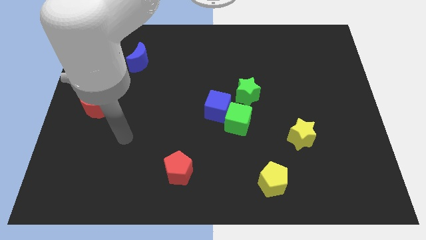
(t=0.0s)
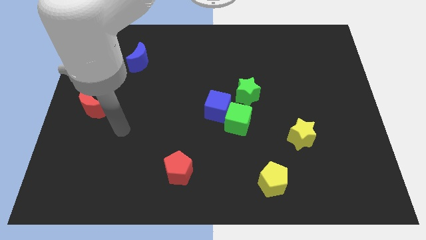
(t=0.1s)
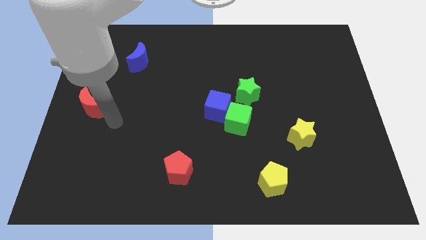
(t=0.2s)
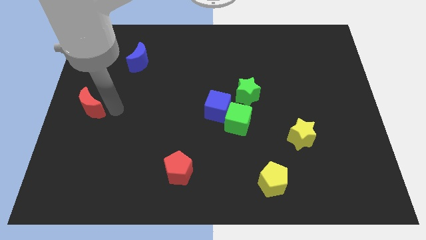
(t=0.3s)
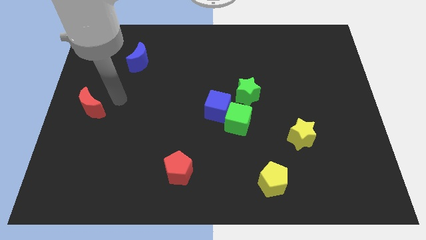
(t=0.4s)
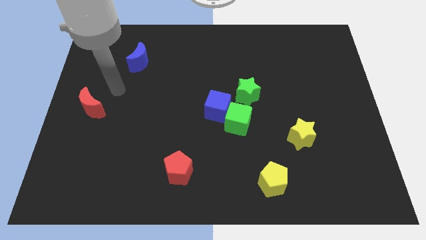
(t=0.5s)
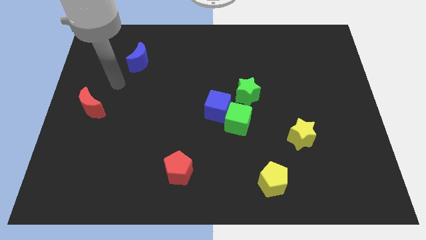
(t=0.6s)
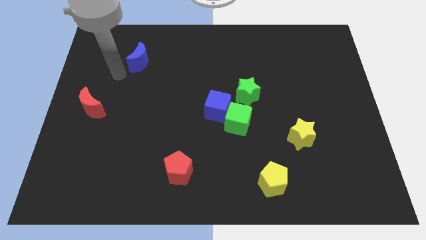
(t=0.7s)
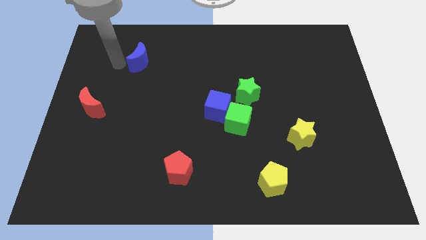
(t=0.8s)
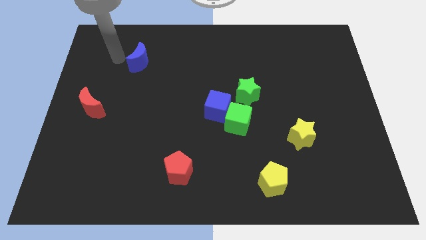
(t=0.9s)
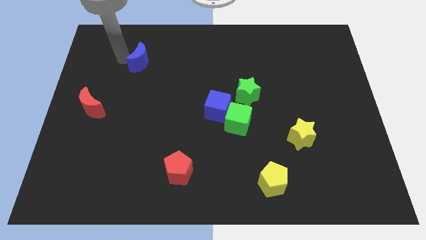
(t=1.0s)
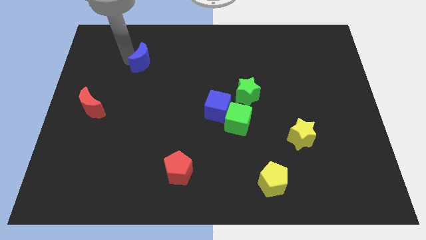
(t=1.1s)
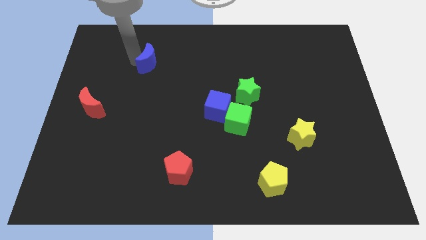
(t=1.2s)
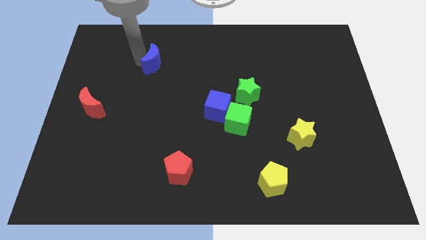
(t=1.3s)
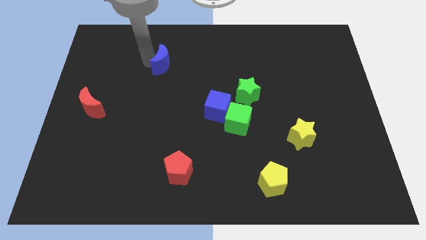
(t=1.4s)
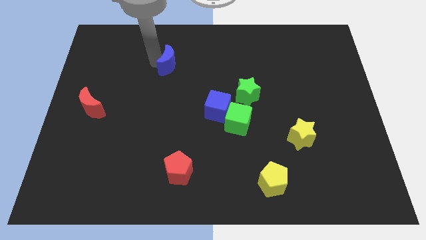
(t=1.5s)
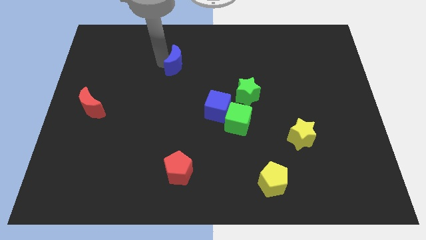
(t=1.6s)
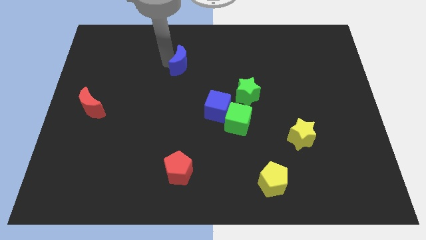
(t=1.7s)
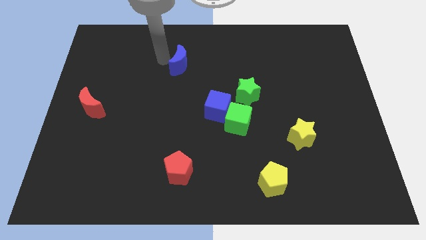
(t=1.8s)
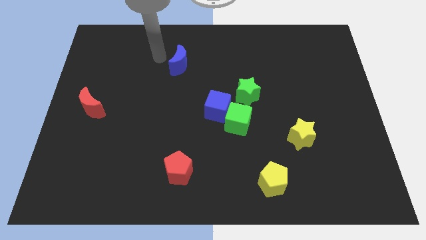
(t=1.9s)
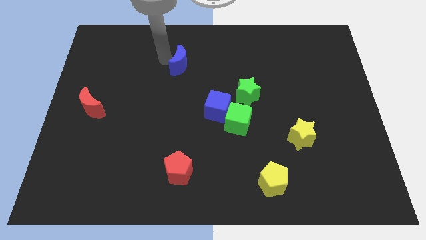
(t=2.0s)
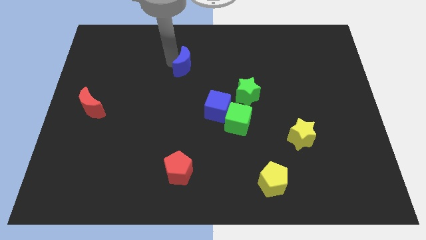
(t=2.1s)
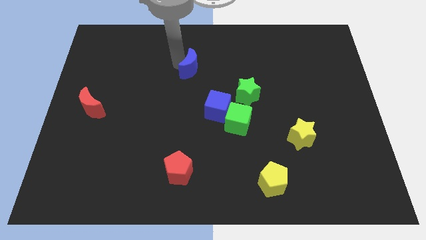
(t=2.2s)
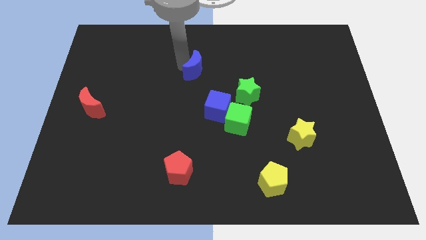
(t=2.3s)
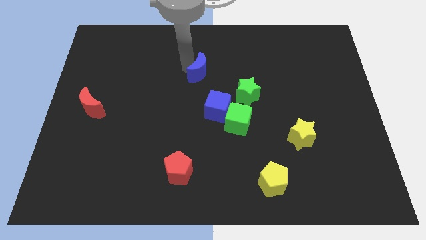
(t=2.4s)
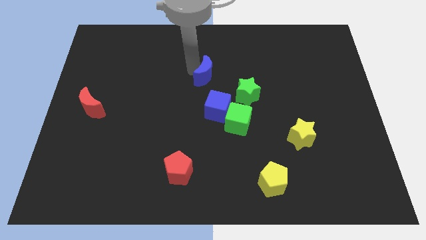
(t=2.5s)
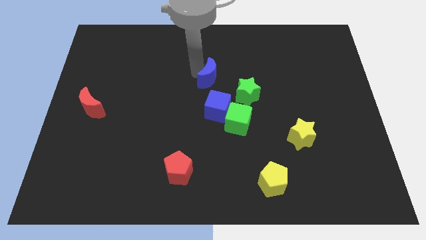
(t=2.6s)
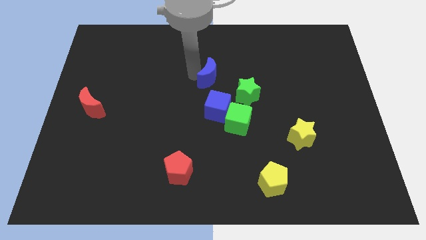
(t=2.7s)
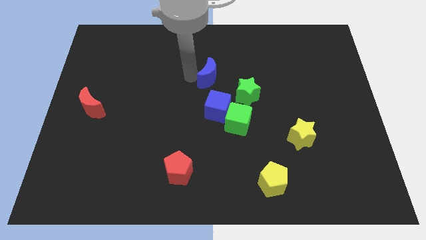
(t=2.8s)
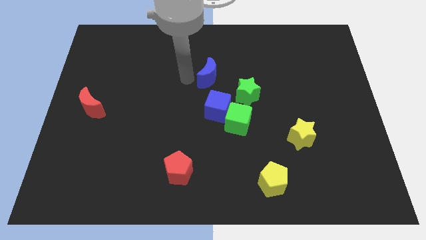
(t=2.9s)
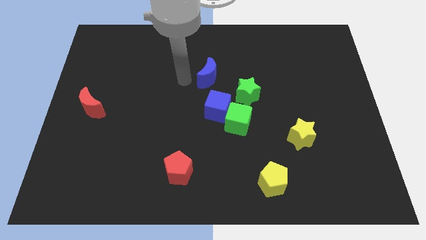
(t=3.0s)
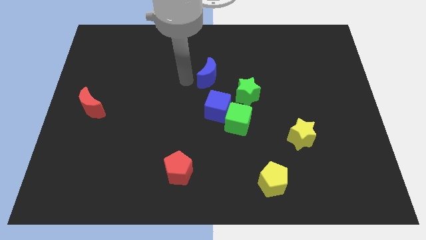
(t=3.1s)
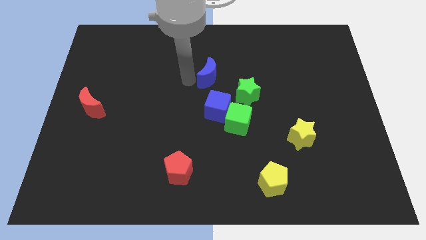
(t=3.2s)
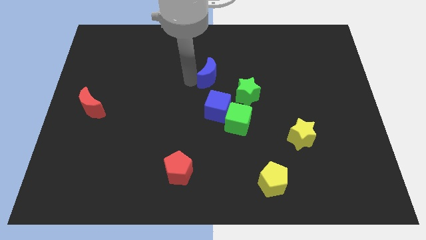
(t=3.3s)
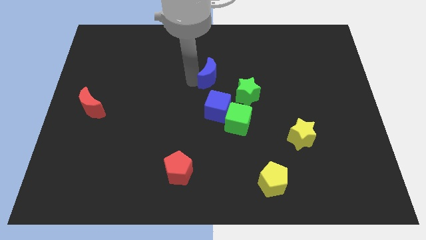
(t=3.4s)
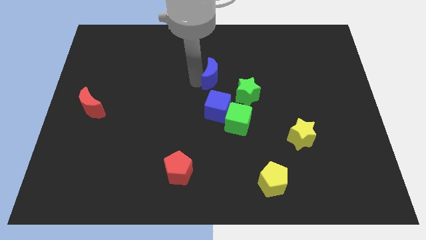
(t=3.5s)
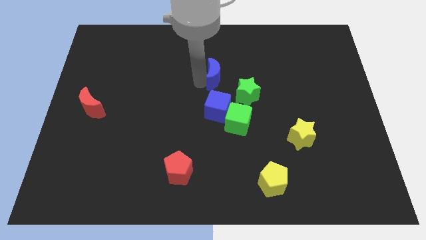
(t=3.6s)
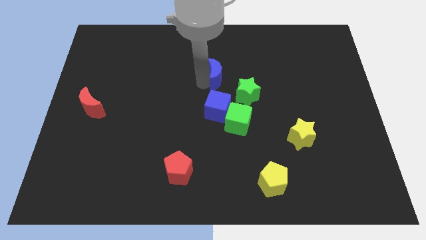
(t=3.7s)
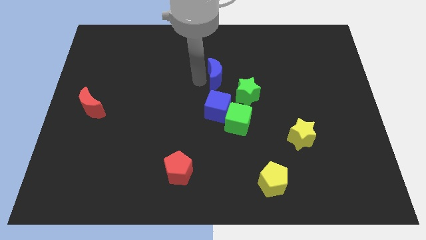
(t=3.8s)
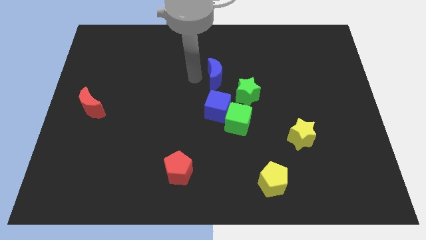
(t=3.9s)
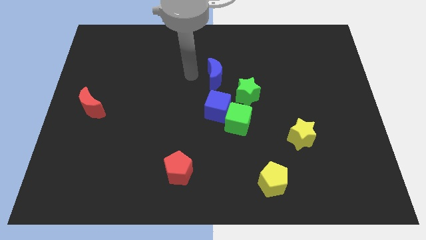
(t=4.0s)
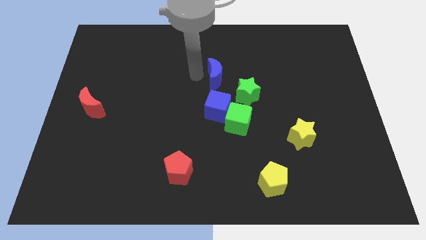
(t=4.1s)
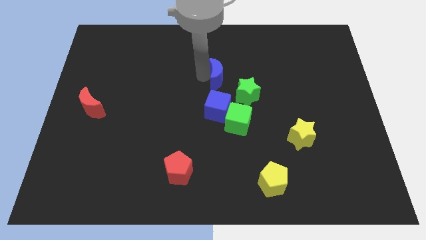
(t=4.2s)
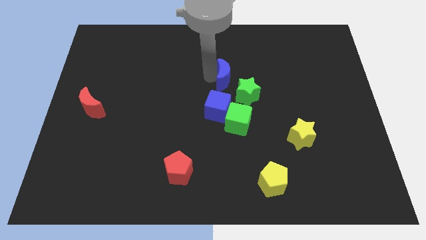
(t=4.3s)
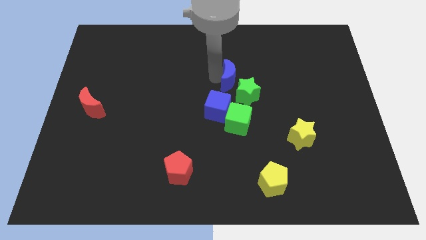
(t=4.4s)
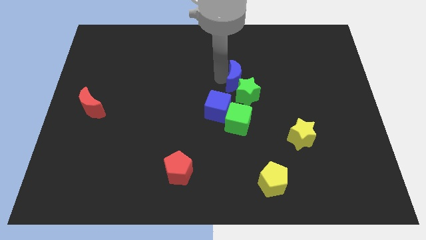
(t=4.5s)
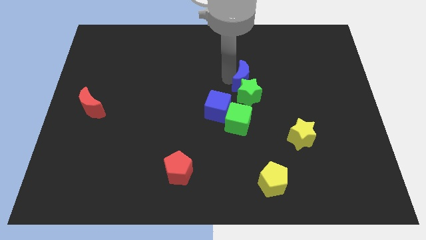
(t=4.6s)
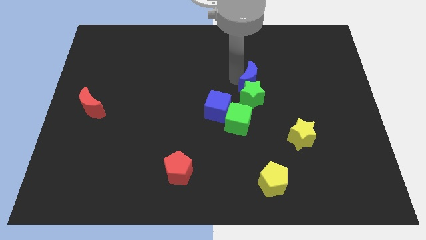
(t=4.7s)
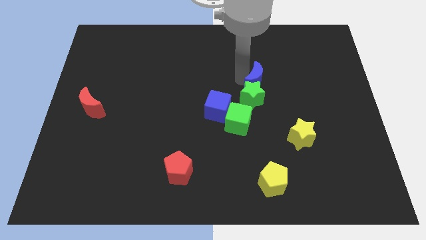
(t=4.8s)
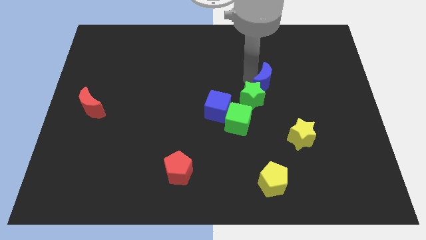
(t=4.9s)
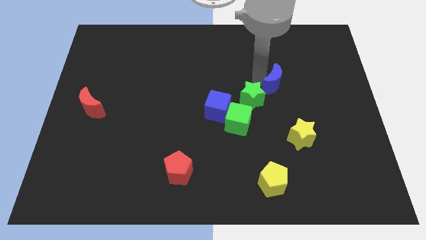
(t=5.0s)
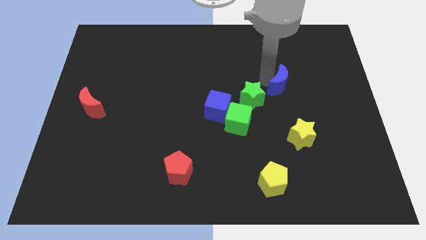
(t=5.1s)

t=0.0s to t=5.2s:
put the blue moon to the right side of the green star

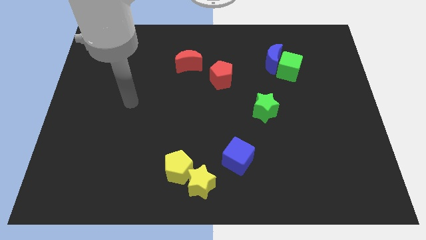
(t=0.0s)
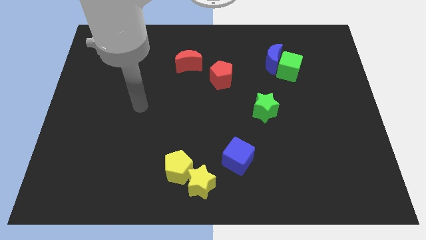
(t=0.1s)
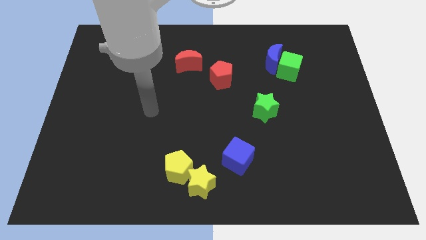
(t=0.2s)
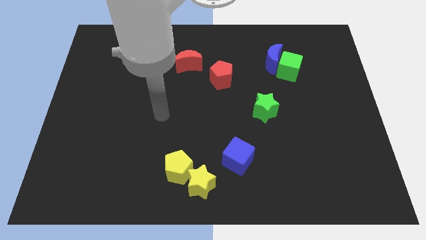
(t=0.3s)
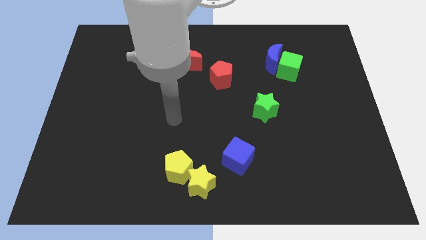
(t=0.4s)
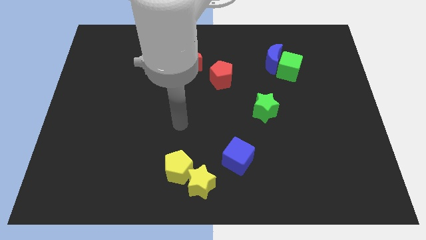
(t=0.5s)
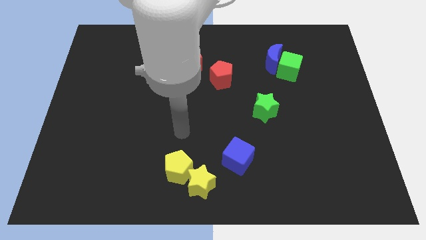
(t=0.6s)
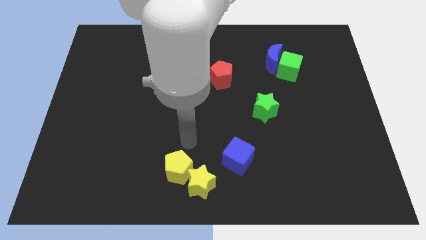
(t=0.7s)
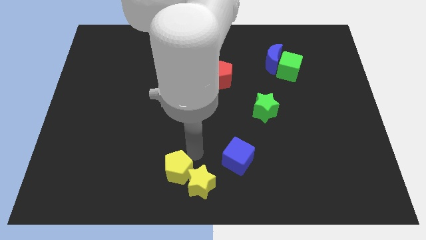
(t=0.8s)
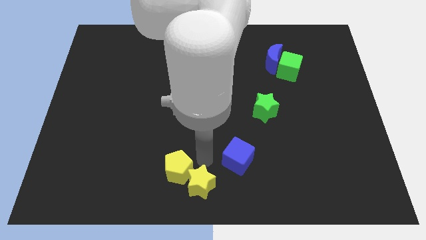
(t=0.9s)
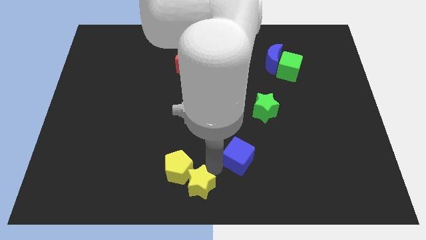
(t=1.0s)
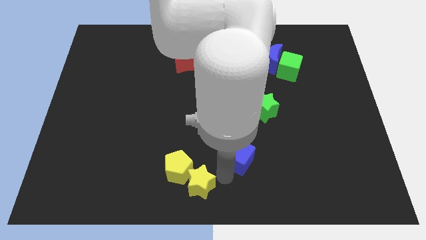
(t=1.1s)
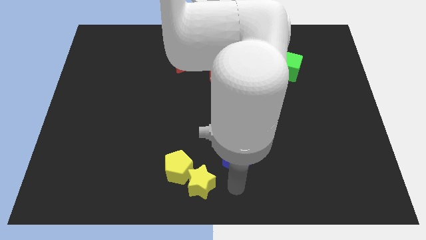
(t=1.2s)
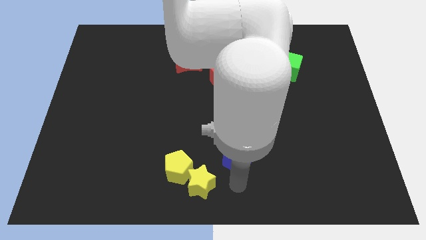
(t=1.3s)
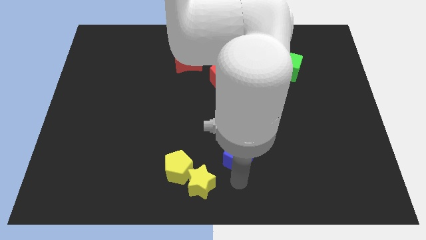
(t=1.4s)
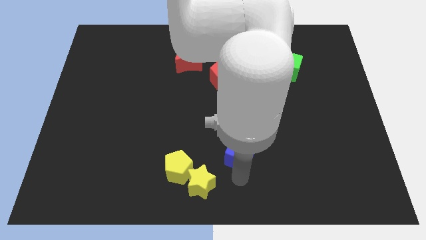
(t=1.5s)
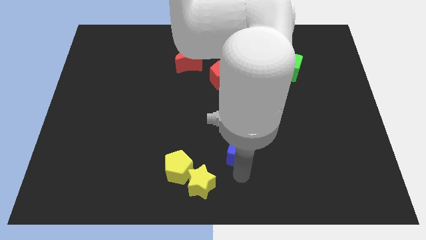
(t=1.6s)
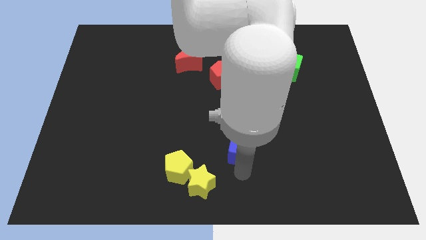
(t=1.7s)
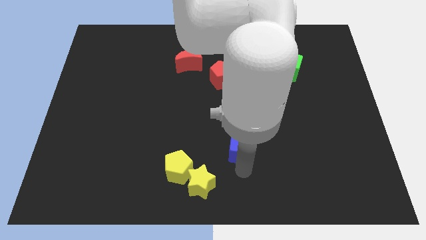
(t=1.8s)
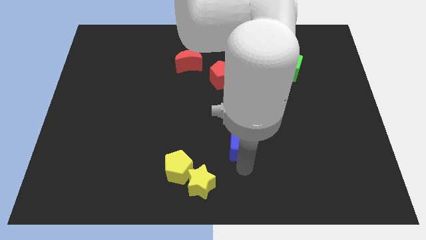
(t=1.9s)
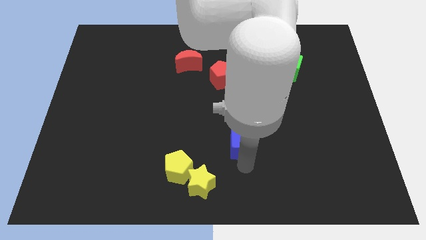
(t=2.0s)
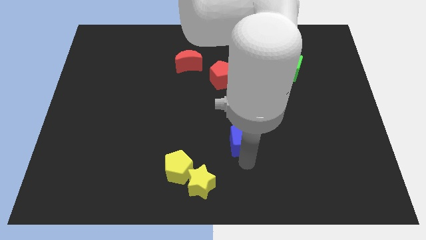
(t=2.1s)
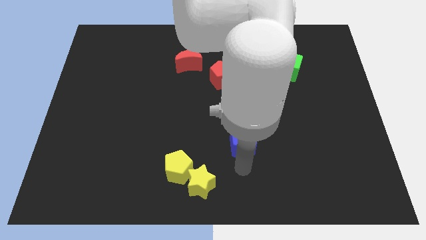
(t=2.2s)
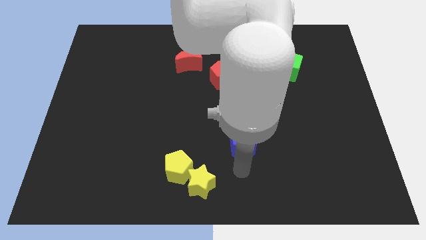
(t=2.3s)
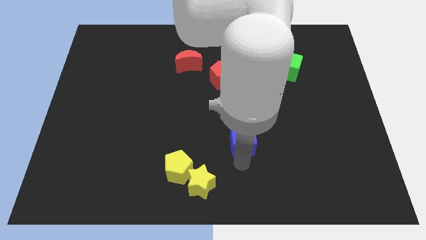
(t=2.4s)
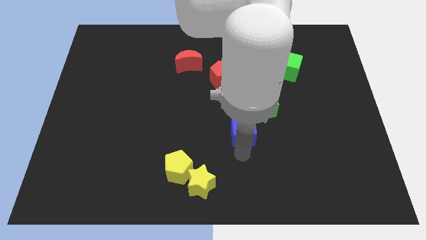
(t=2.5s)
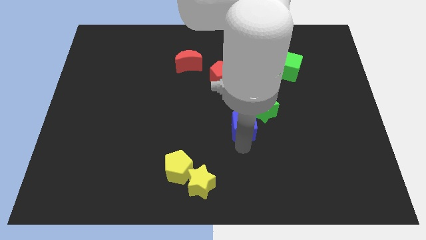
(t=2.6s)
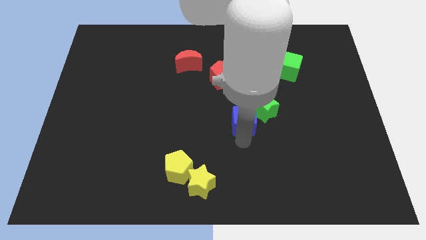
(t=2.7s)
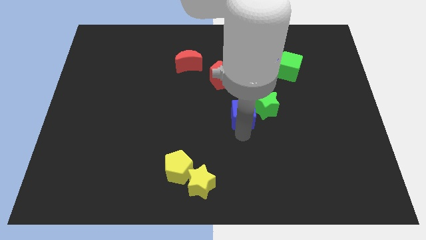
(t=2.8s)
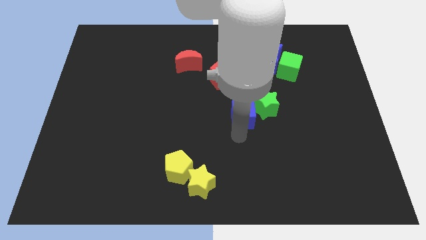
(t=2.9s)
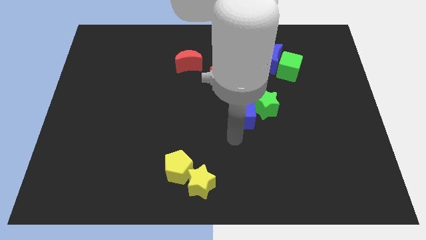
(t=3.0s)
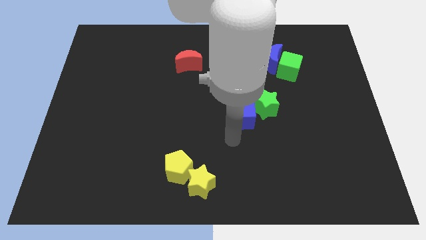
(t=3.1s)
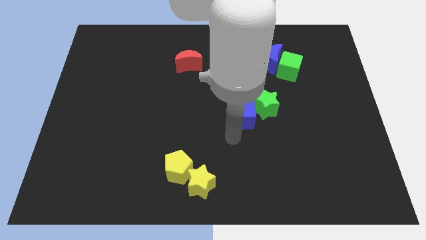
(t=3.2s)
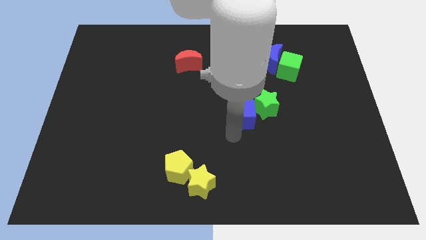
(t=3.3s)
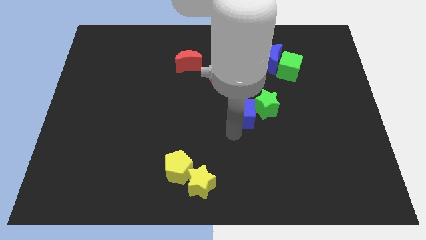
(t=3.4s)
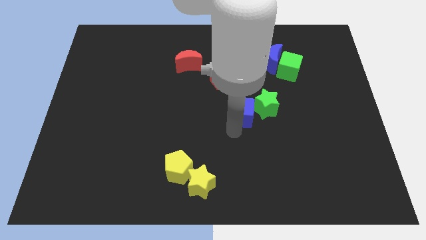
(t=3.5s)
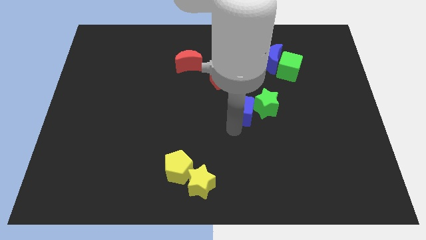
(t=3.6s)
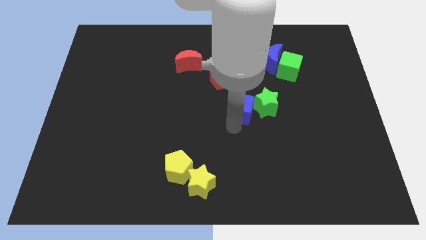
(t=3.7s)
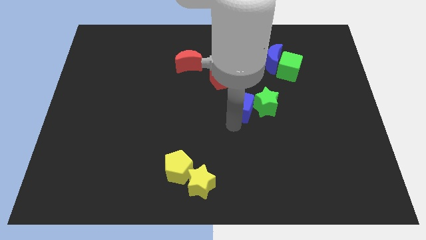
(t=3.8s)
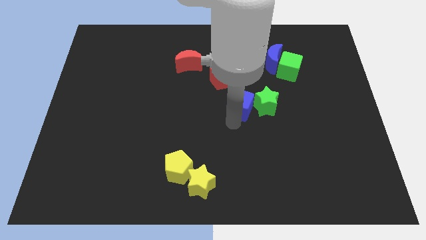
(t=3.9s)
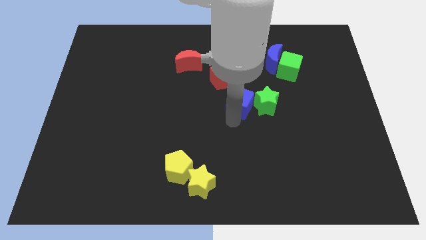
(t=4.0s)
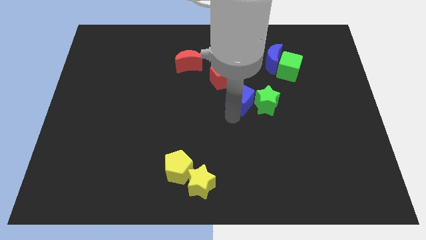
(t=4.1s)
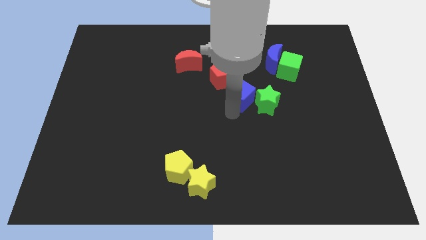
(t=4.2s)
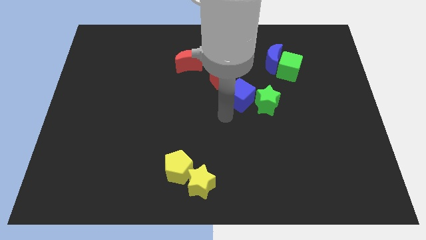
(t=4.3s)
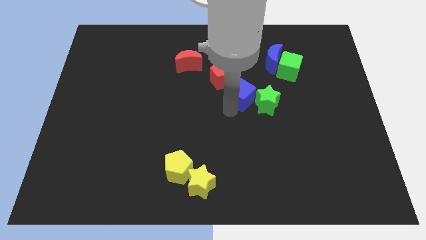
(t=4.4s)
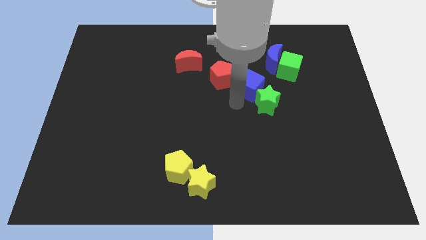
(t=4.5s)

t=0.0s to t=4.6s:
slide the blue cube above the green star
